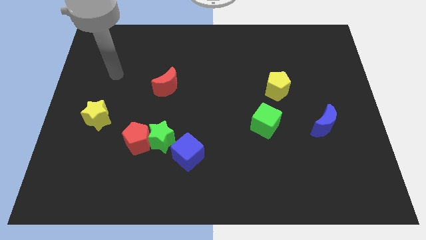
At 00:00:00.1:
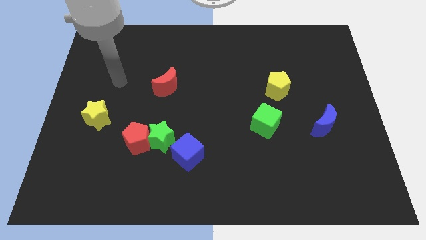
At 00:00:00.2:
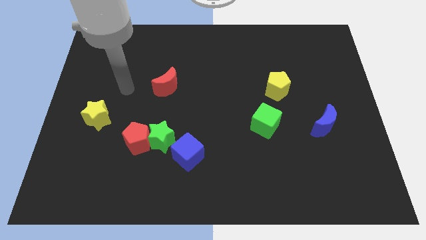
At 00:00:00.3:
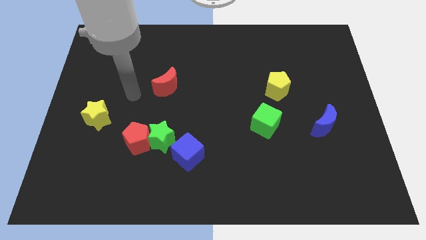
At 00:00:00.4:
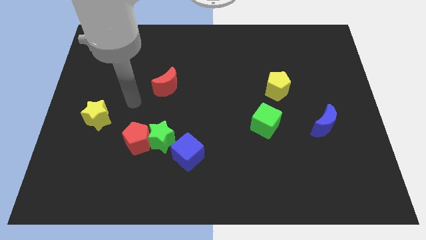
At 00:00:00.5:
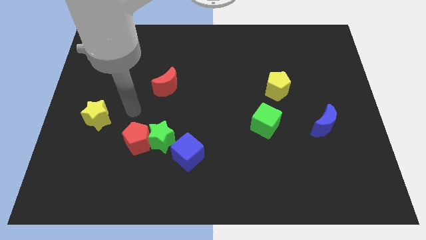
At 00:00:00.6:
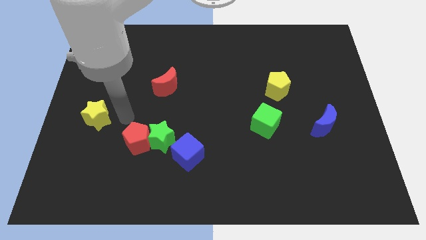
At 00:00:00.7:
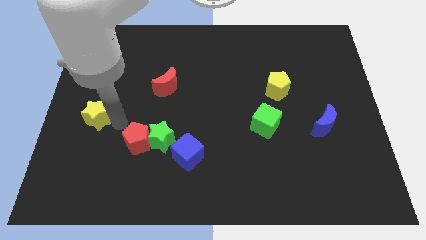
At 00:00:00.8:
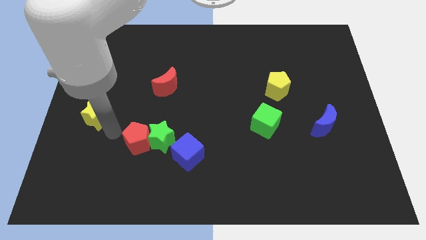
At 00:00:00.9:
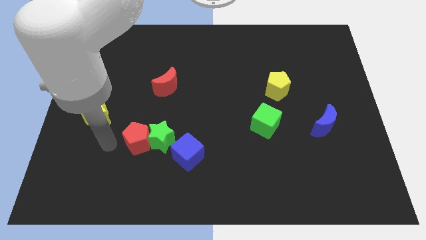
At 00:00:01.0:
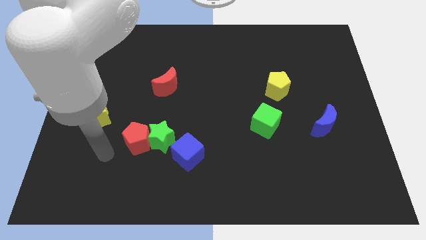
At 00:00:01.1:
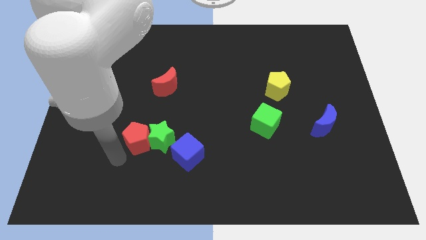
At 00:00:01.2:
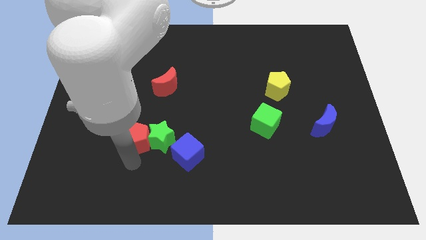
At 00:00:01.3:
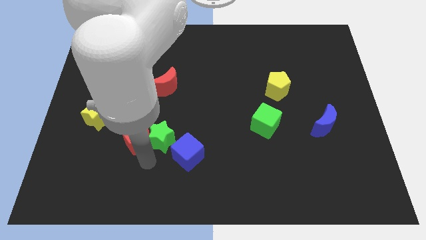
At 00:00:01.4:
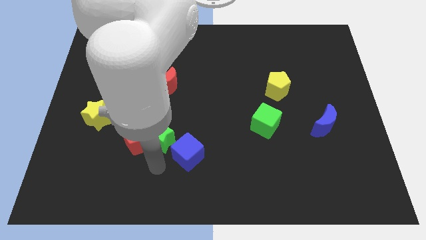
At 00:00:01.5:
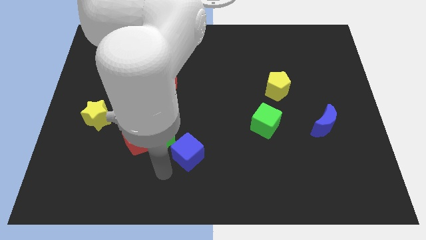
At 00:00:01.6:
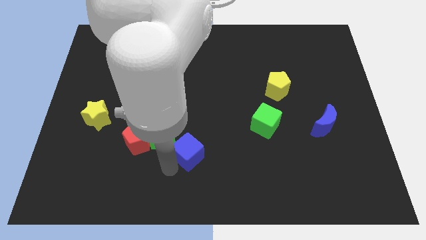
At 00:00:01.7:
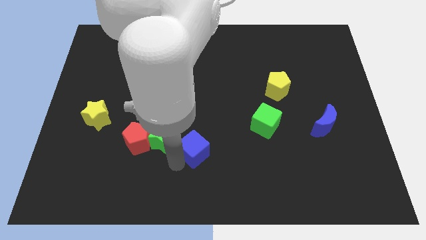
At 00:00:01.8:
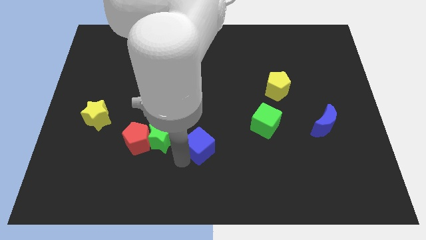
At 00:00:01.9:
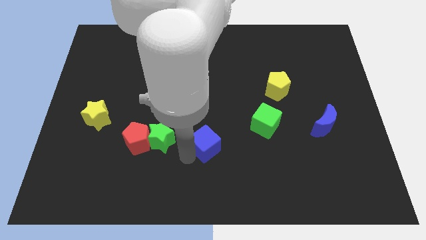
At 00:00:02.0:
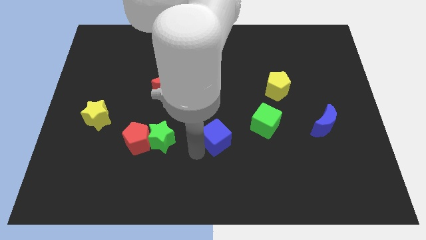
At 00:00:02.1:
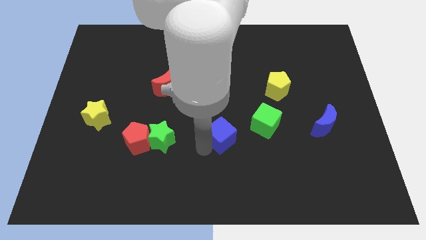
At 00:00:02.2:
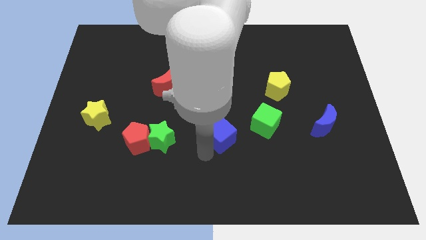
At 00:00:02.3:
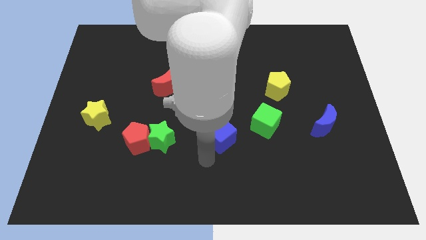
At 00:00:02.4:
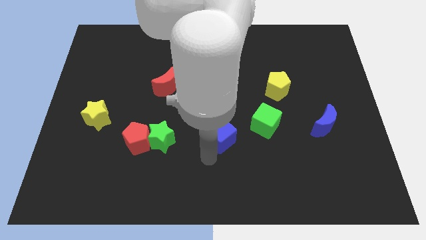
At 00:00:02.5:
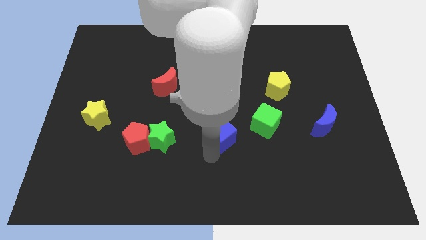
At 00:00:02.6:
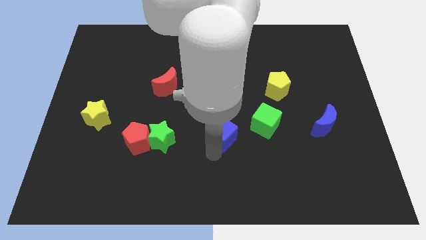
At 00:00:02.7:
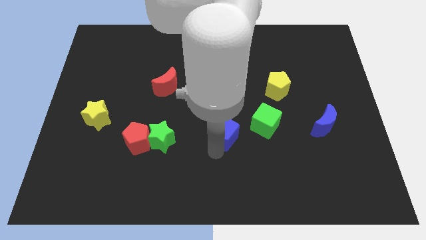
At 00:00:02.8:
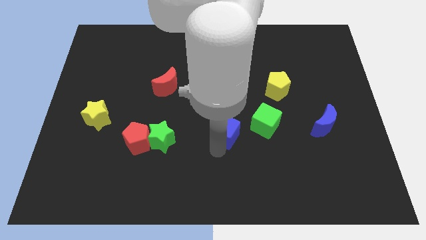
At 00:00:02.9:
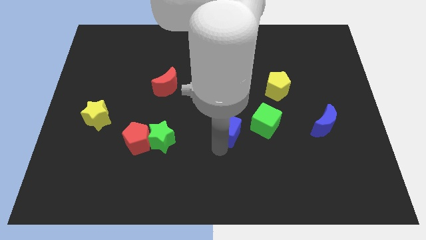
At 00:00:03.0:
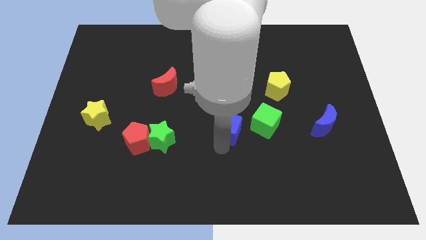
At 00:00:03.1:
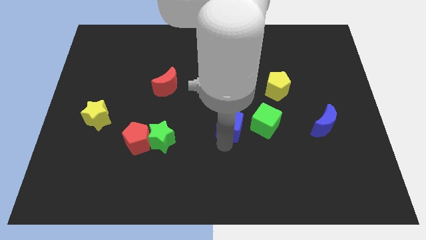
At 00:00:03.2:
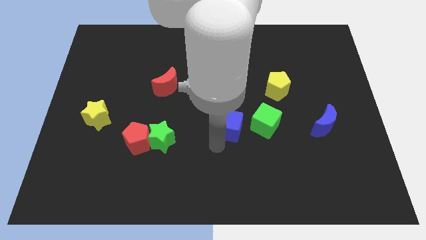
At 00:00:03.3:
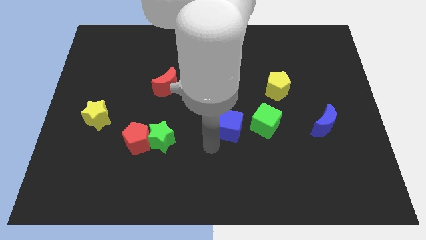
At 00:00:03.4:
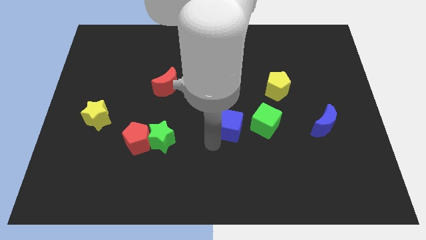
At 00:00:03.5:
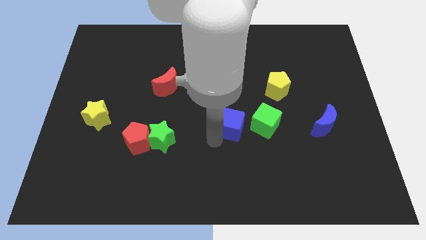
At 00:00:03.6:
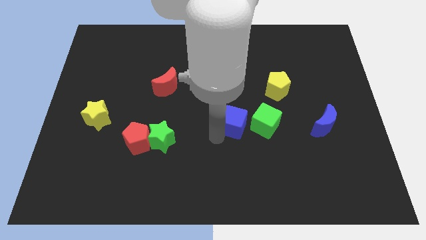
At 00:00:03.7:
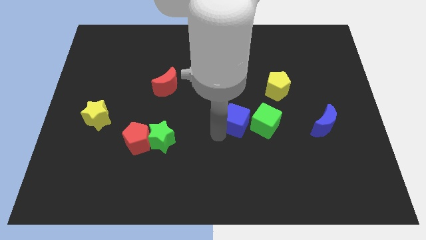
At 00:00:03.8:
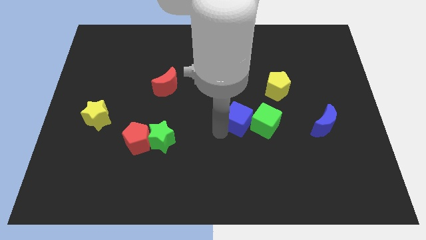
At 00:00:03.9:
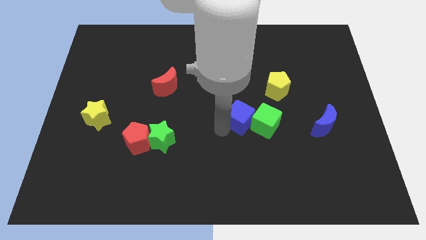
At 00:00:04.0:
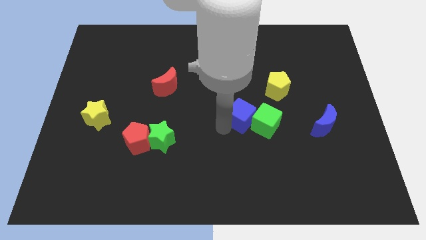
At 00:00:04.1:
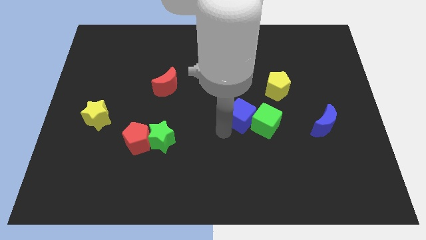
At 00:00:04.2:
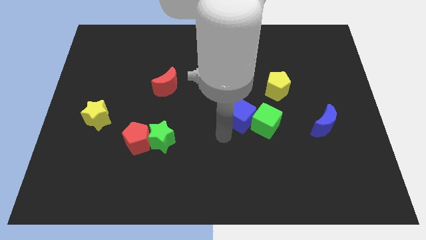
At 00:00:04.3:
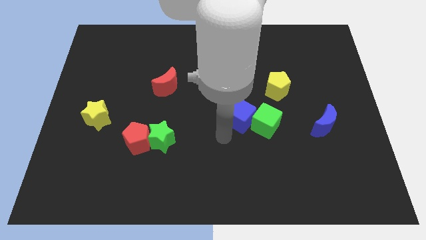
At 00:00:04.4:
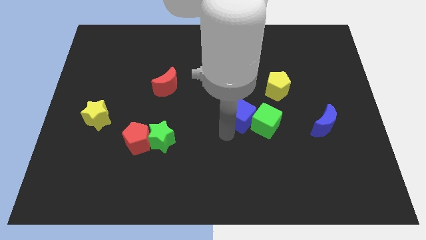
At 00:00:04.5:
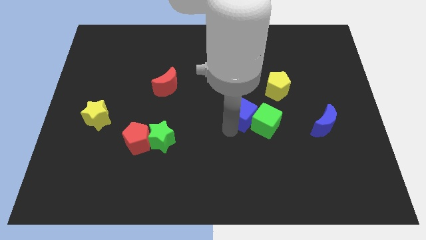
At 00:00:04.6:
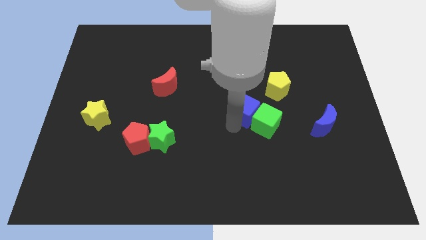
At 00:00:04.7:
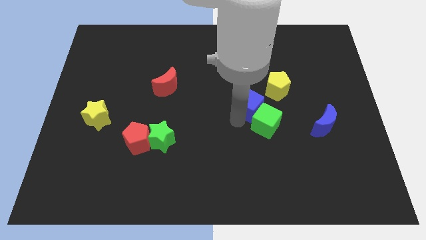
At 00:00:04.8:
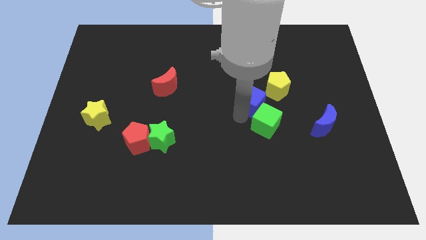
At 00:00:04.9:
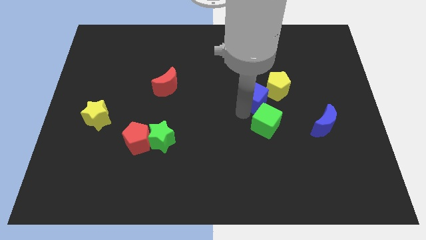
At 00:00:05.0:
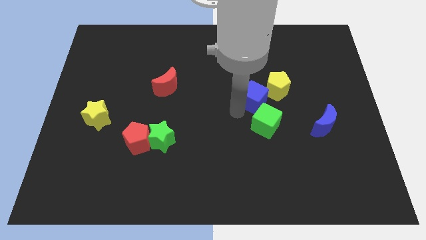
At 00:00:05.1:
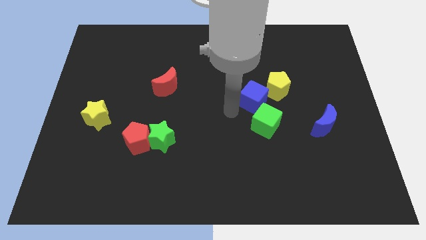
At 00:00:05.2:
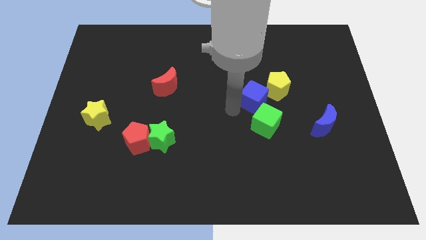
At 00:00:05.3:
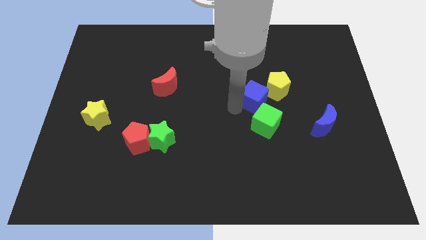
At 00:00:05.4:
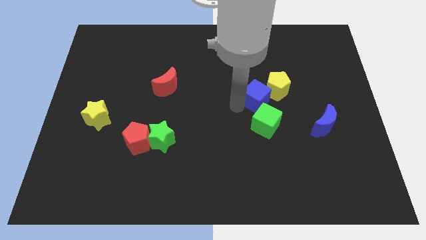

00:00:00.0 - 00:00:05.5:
move the blue cube close to the yellow pentagon

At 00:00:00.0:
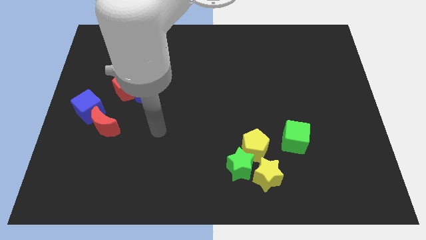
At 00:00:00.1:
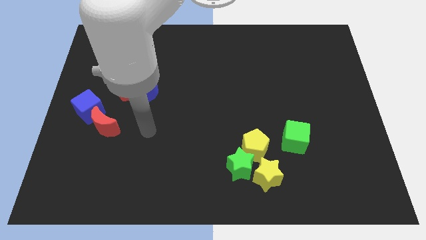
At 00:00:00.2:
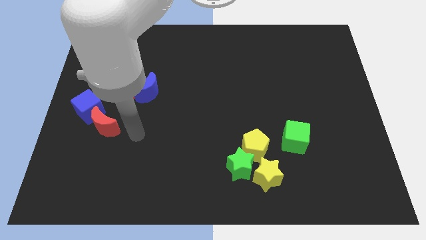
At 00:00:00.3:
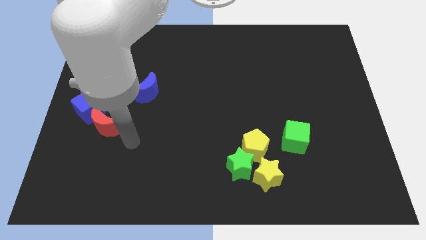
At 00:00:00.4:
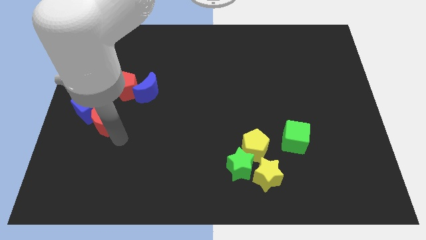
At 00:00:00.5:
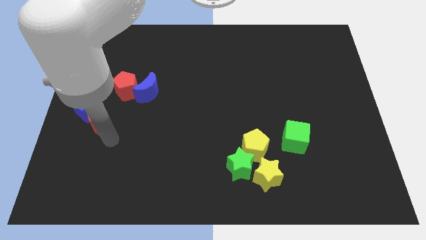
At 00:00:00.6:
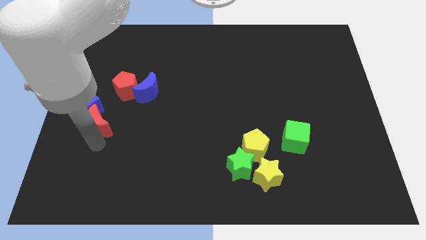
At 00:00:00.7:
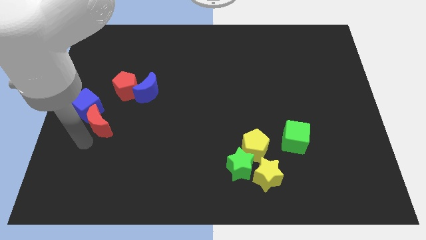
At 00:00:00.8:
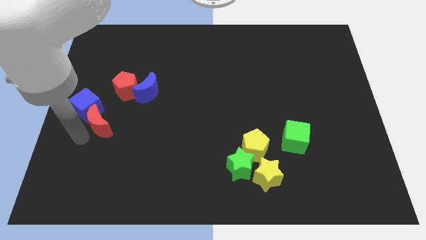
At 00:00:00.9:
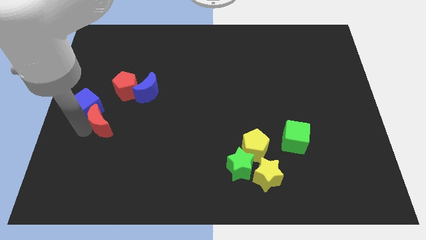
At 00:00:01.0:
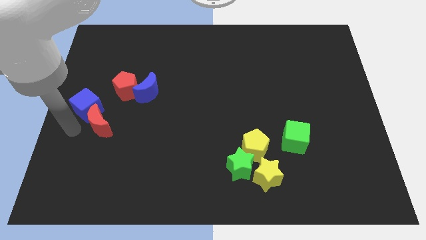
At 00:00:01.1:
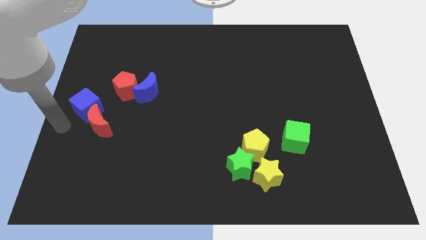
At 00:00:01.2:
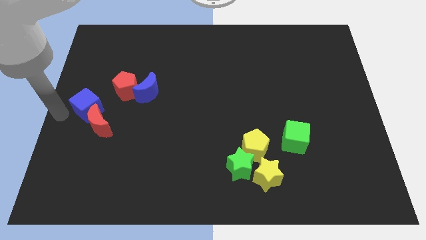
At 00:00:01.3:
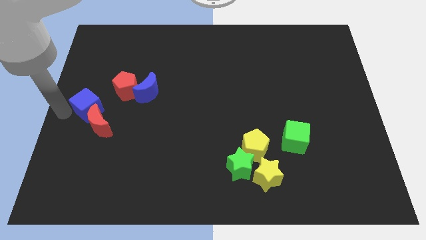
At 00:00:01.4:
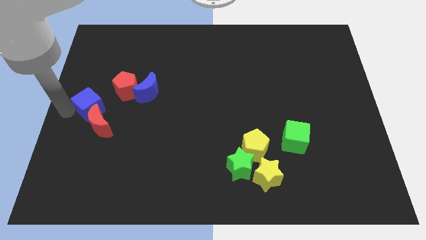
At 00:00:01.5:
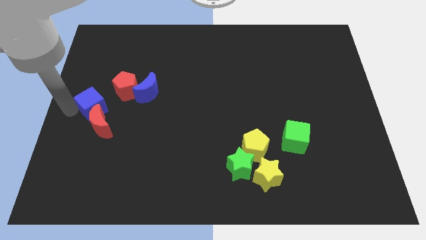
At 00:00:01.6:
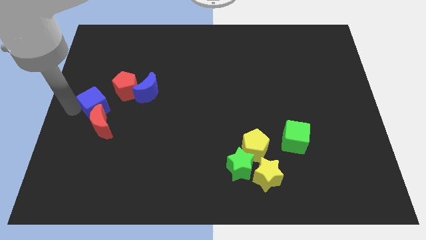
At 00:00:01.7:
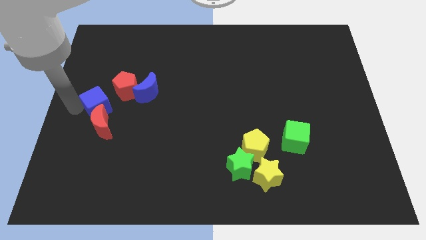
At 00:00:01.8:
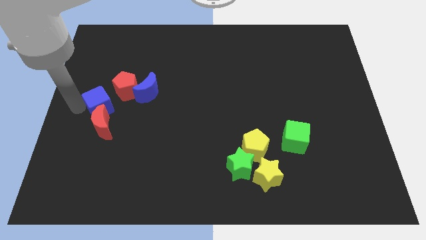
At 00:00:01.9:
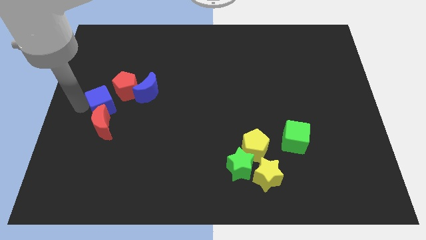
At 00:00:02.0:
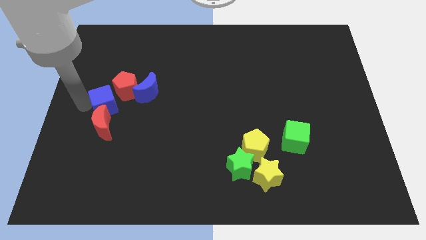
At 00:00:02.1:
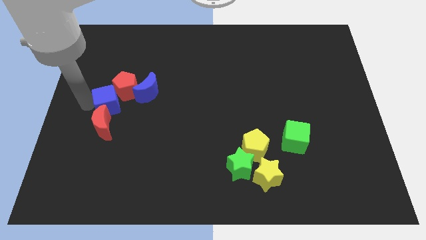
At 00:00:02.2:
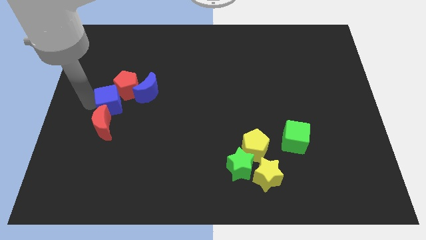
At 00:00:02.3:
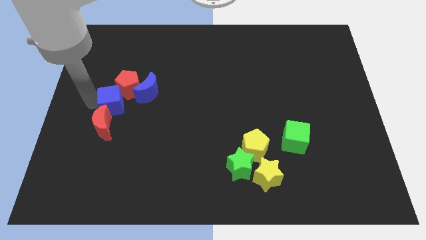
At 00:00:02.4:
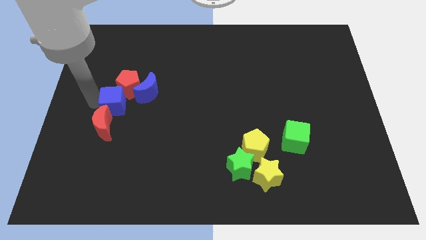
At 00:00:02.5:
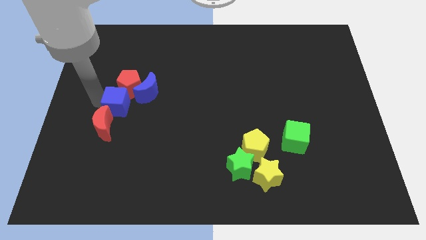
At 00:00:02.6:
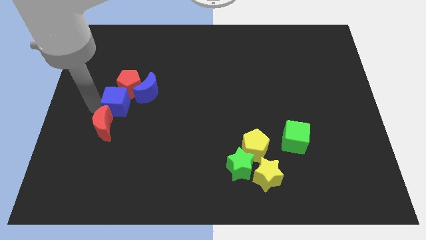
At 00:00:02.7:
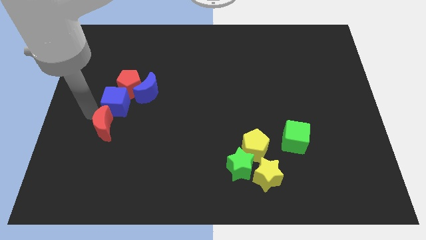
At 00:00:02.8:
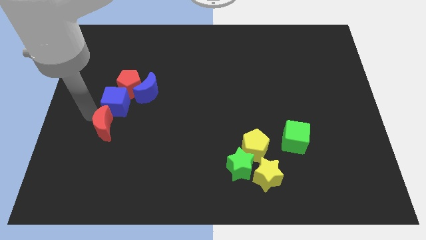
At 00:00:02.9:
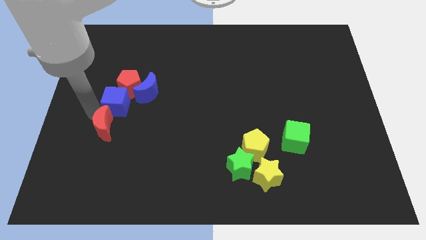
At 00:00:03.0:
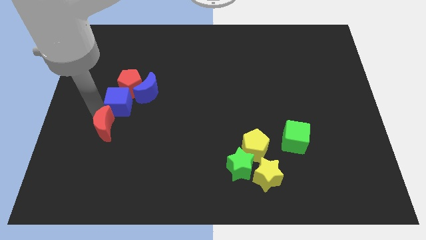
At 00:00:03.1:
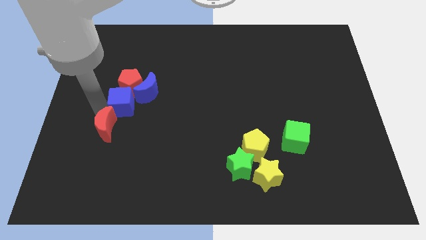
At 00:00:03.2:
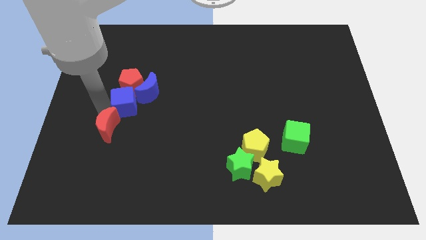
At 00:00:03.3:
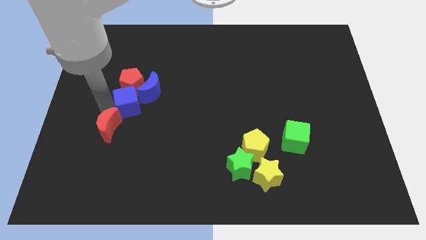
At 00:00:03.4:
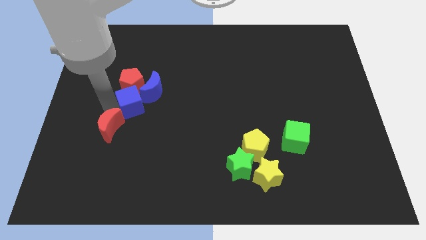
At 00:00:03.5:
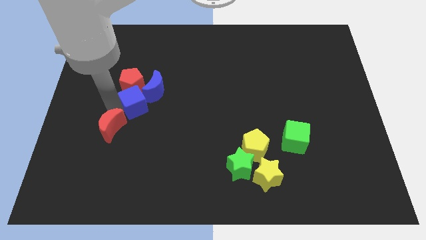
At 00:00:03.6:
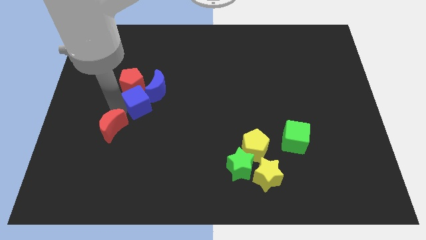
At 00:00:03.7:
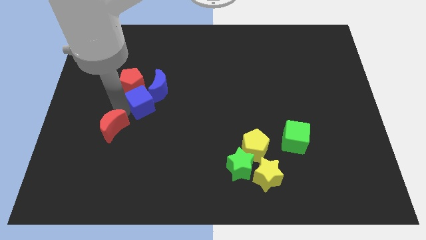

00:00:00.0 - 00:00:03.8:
push the blue cube next to the blue moon
